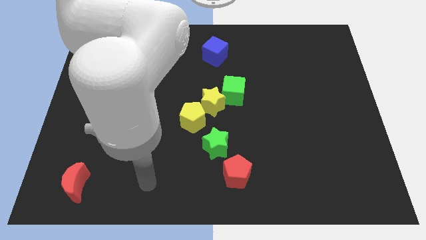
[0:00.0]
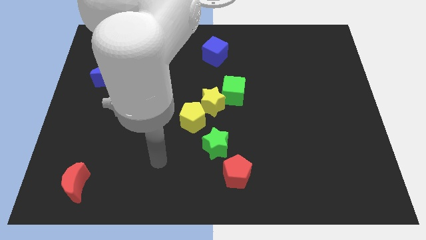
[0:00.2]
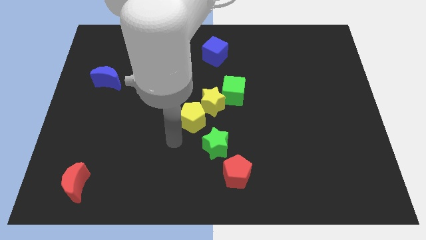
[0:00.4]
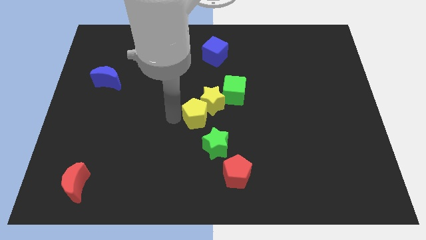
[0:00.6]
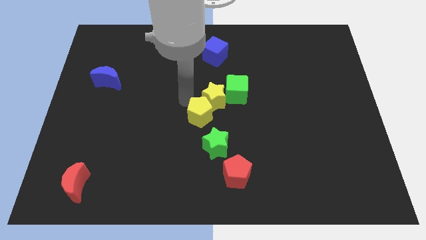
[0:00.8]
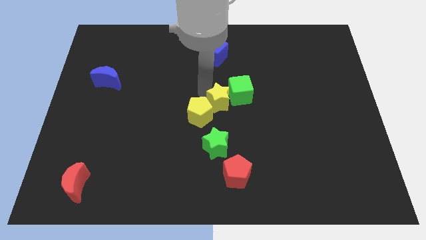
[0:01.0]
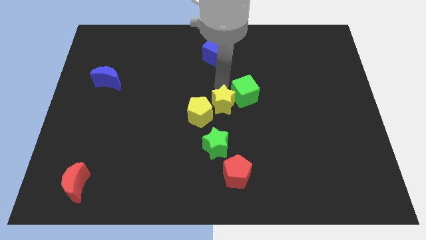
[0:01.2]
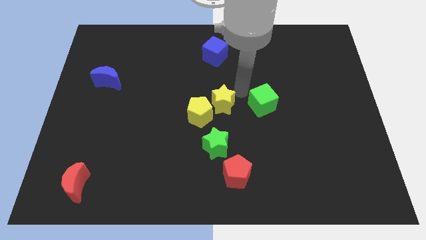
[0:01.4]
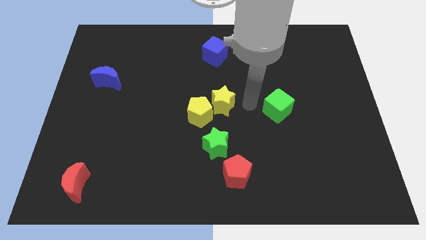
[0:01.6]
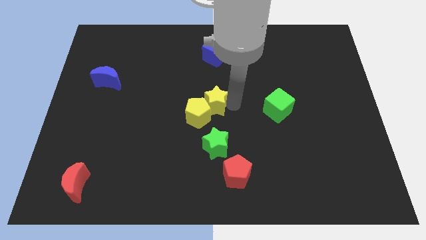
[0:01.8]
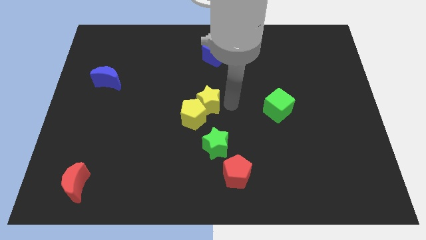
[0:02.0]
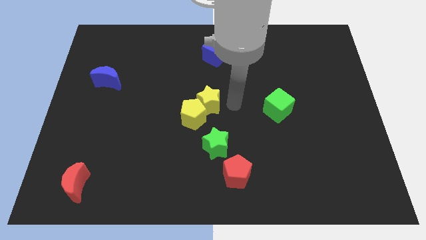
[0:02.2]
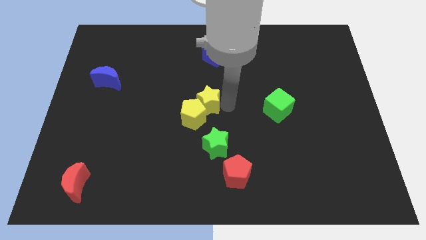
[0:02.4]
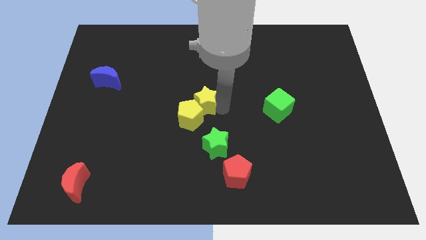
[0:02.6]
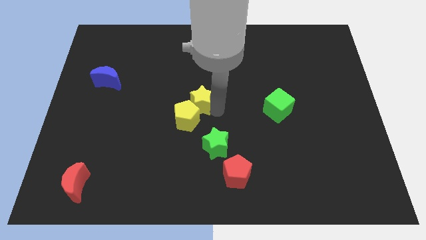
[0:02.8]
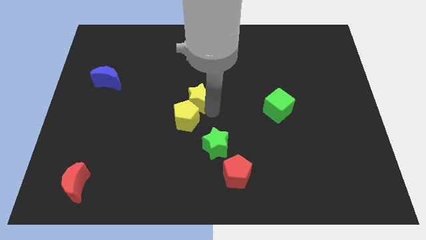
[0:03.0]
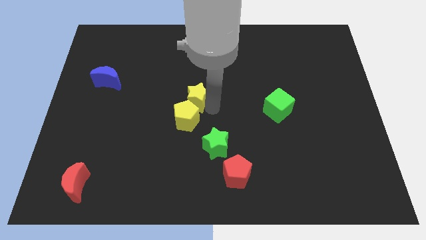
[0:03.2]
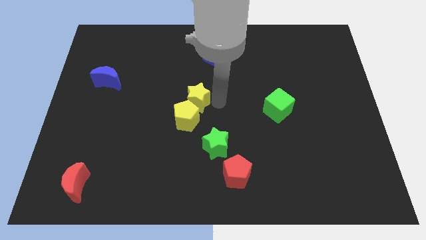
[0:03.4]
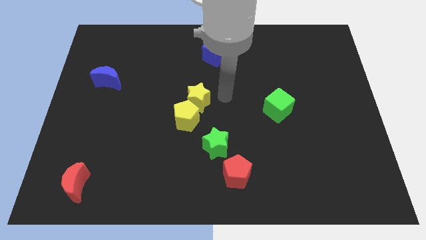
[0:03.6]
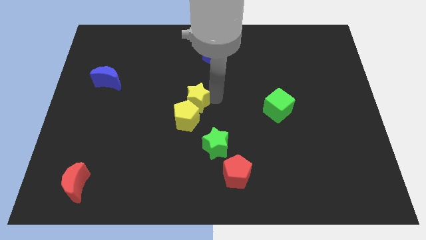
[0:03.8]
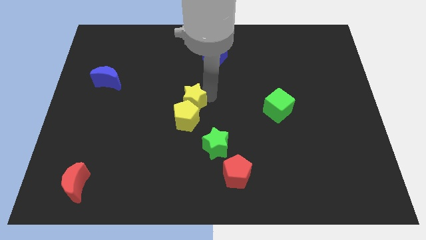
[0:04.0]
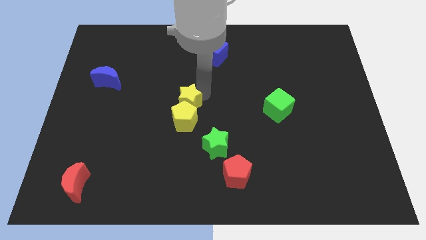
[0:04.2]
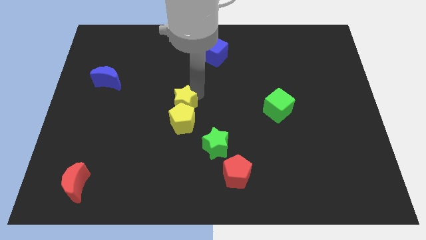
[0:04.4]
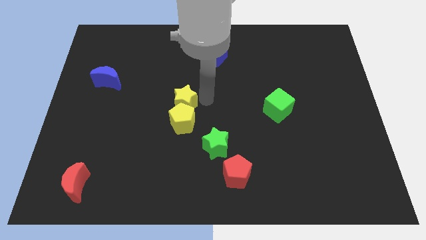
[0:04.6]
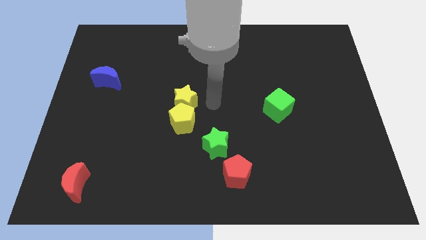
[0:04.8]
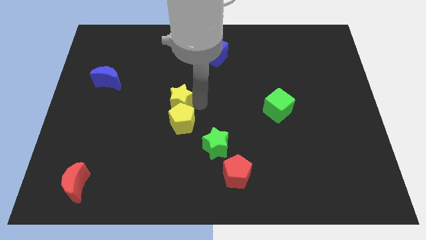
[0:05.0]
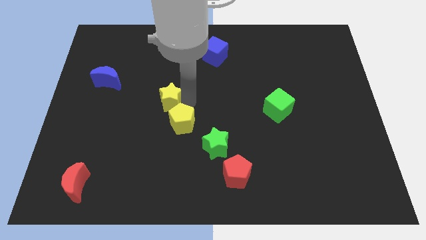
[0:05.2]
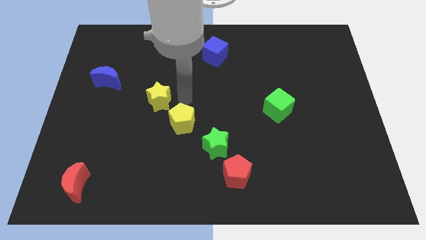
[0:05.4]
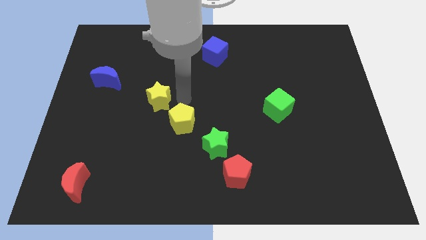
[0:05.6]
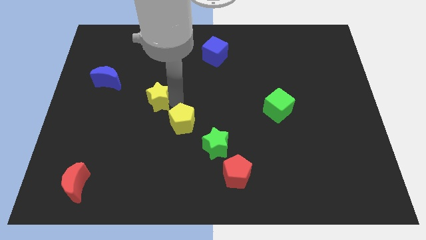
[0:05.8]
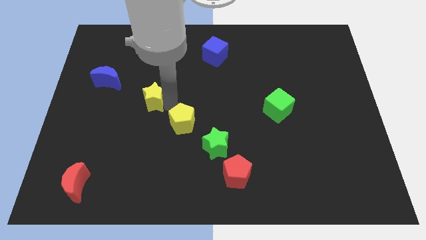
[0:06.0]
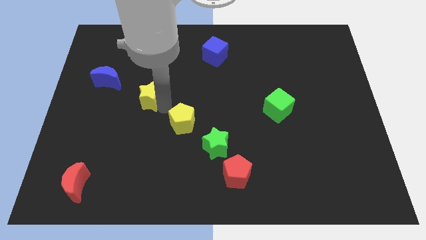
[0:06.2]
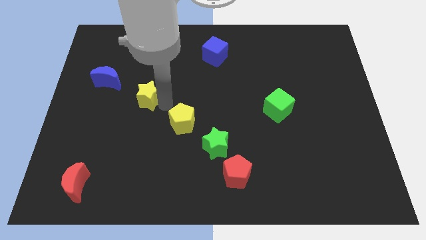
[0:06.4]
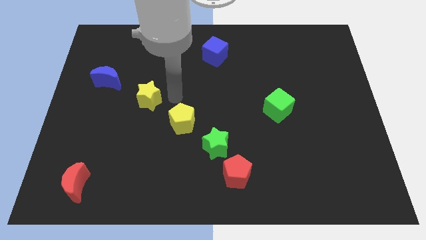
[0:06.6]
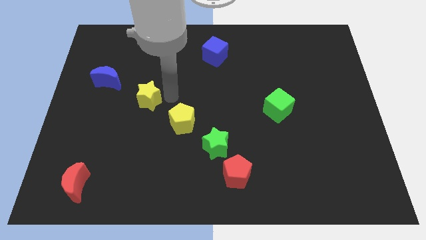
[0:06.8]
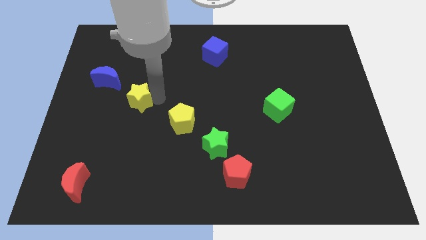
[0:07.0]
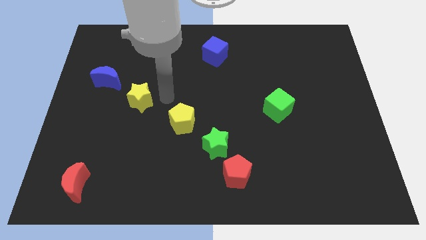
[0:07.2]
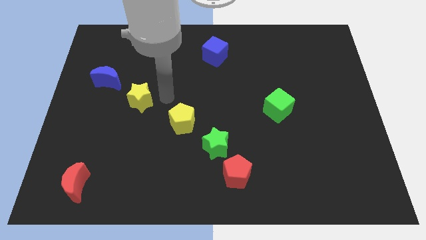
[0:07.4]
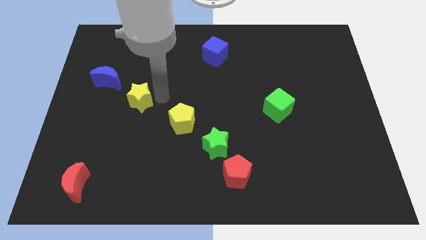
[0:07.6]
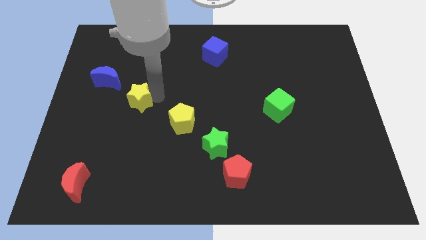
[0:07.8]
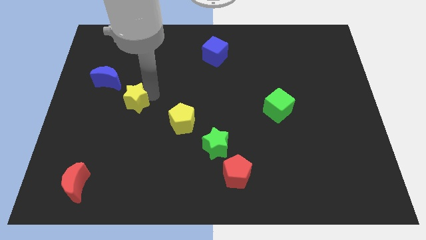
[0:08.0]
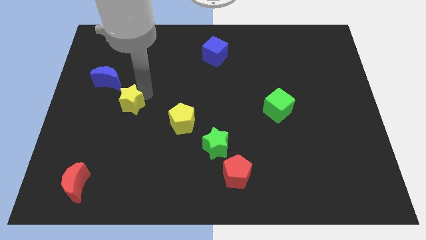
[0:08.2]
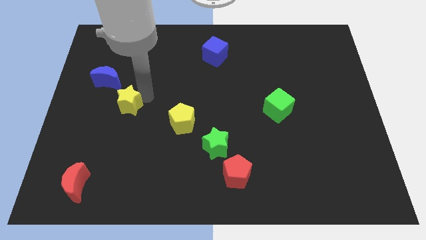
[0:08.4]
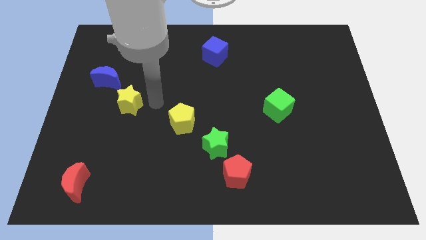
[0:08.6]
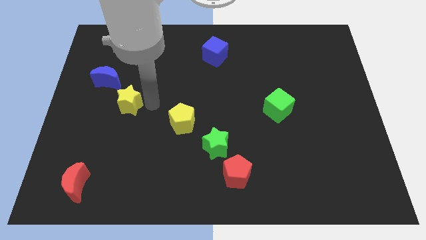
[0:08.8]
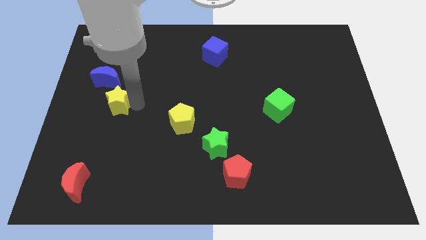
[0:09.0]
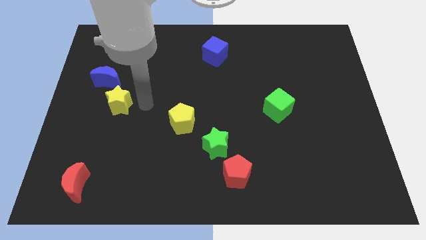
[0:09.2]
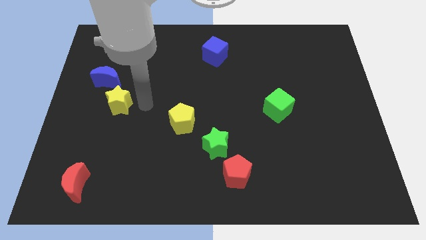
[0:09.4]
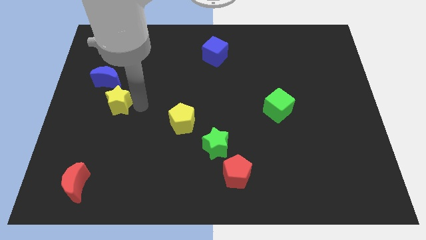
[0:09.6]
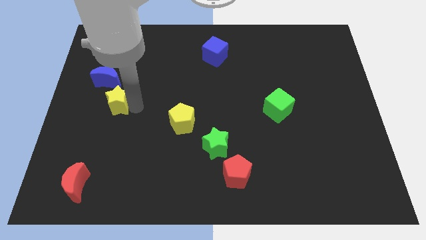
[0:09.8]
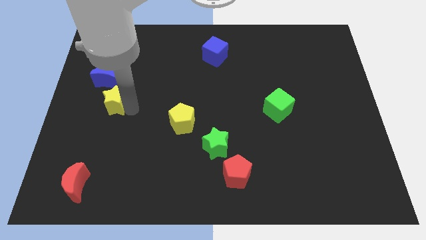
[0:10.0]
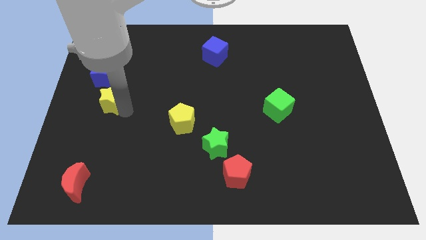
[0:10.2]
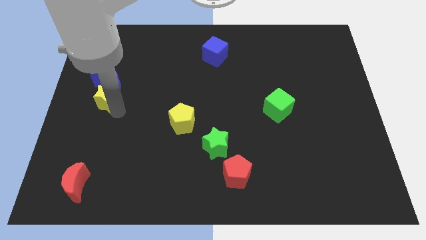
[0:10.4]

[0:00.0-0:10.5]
put the yellow star to the left side

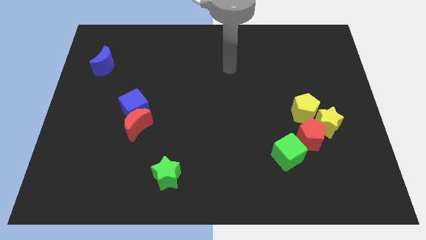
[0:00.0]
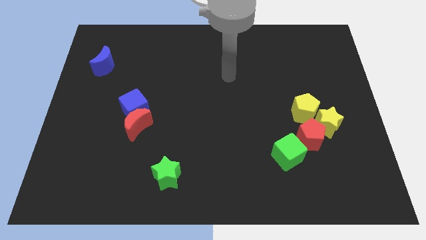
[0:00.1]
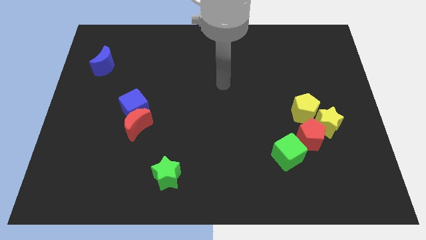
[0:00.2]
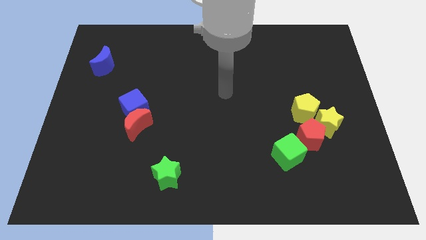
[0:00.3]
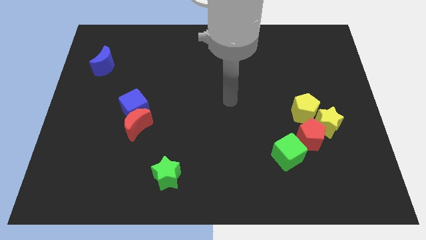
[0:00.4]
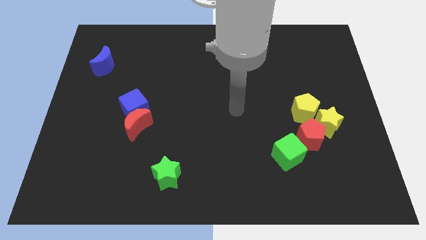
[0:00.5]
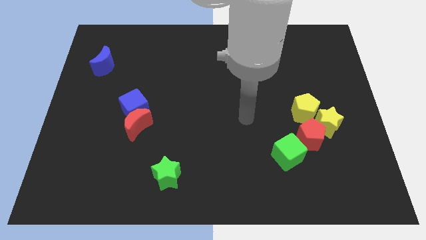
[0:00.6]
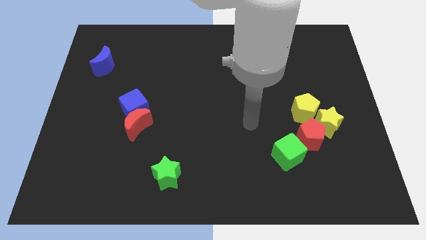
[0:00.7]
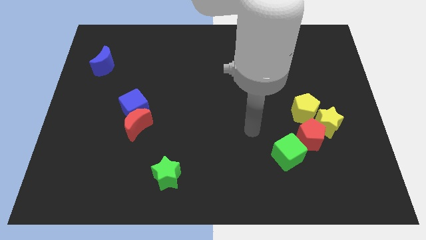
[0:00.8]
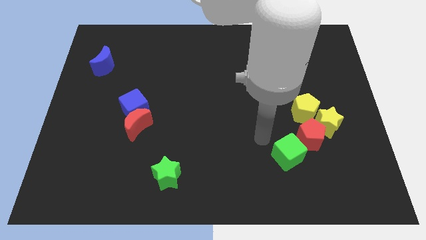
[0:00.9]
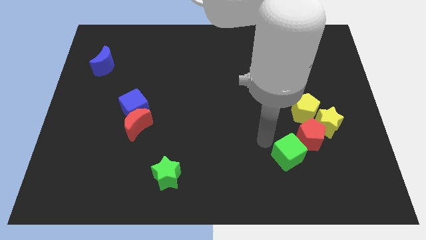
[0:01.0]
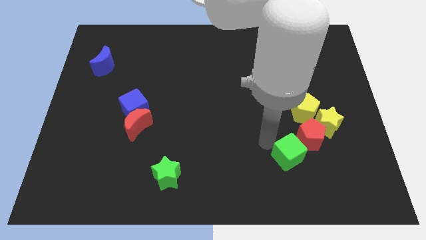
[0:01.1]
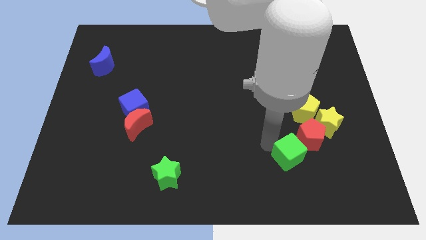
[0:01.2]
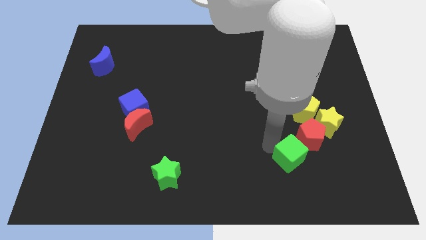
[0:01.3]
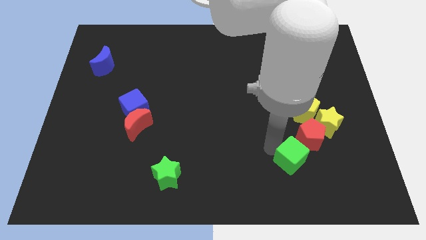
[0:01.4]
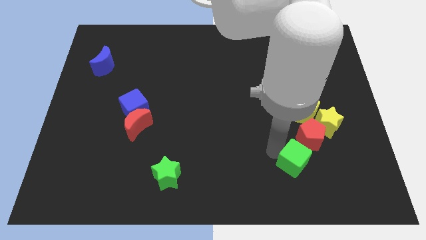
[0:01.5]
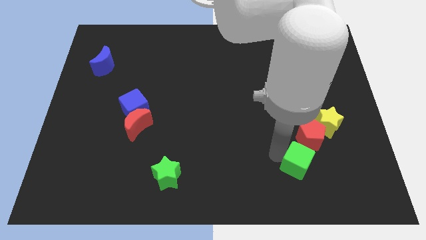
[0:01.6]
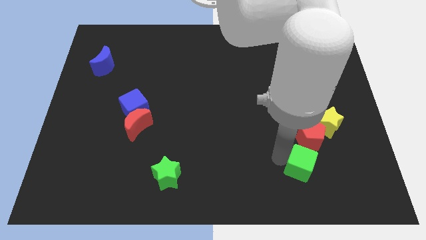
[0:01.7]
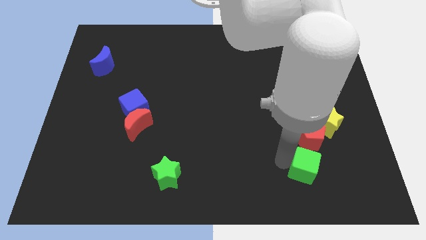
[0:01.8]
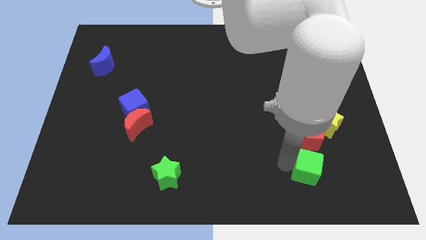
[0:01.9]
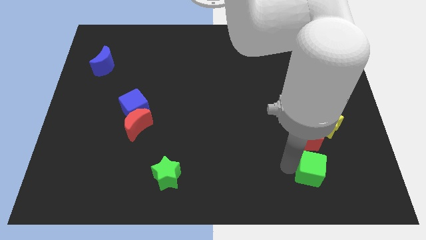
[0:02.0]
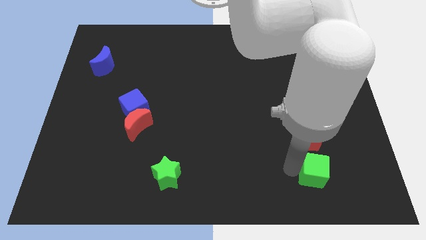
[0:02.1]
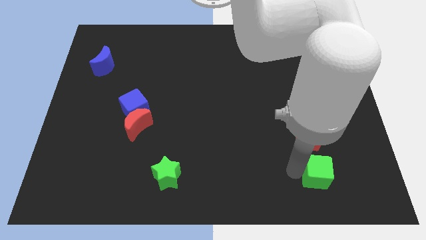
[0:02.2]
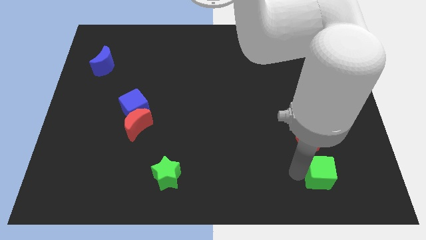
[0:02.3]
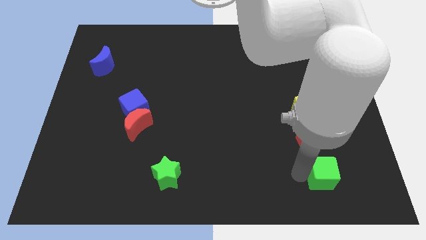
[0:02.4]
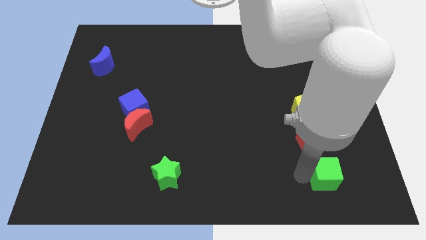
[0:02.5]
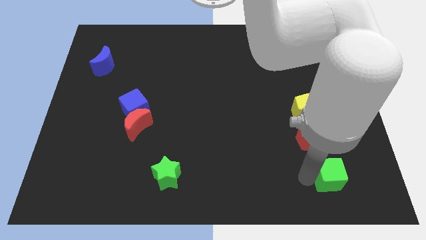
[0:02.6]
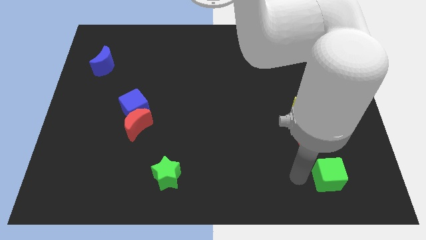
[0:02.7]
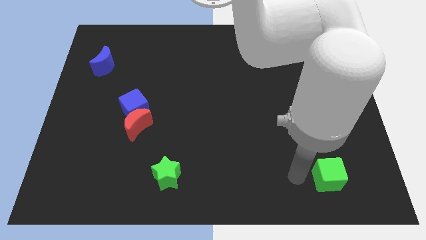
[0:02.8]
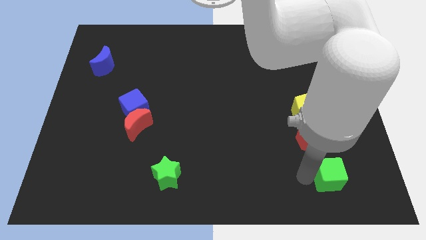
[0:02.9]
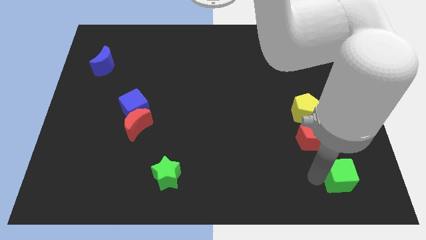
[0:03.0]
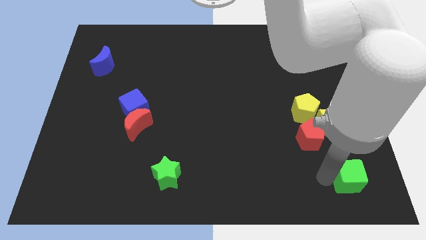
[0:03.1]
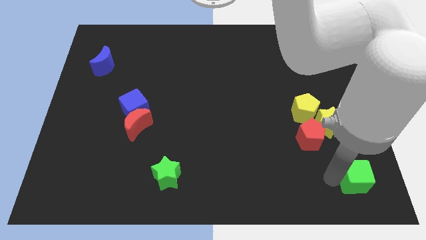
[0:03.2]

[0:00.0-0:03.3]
slide the green cube to the bottom right corner
